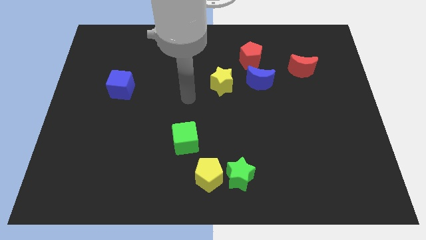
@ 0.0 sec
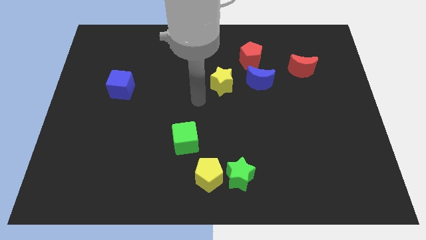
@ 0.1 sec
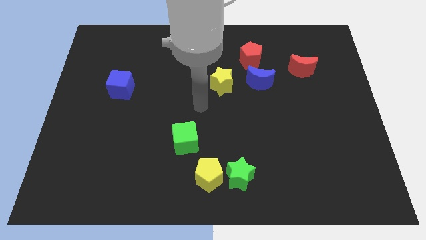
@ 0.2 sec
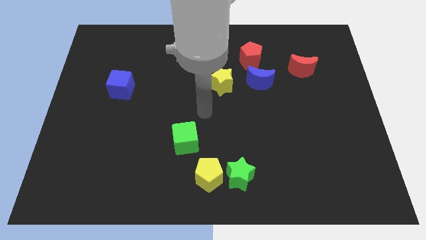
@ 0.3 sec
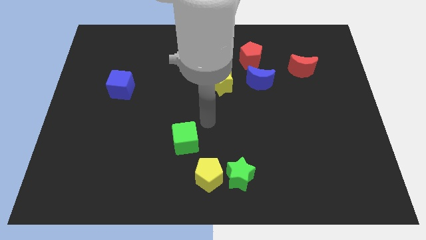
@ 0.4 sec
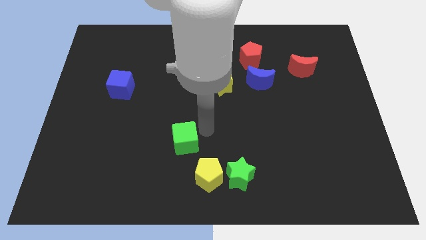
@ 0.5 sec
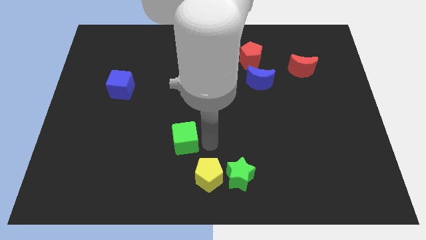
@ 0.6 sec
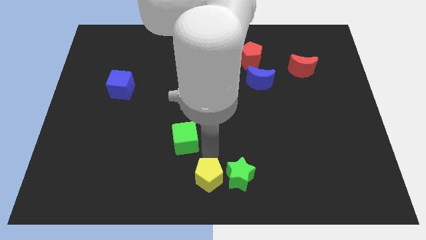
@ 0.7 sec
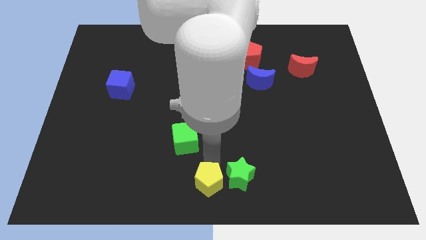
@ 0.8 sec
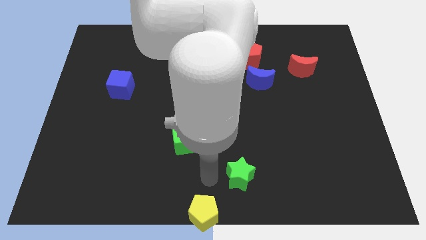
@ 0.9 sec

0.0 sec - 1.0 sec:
move the green star away from the yellow pentagon

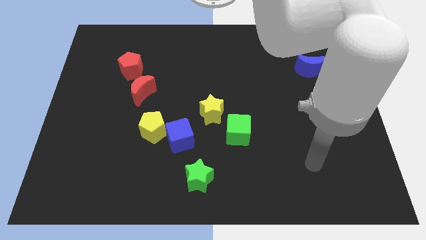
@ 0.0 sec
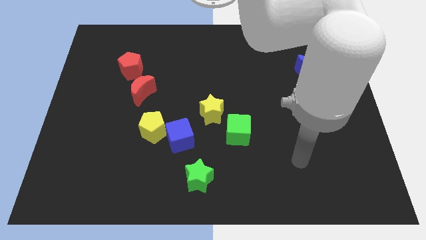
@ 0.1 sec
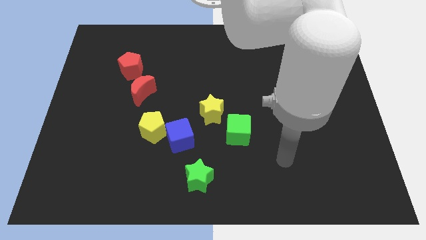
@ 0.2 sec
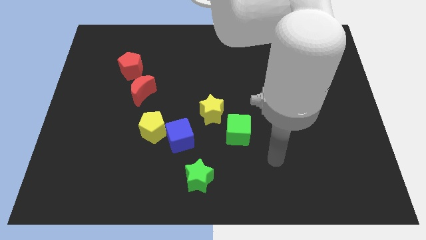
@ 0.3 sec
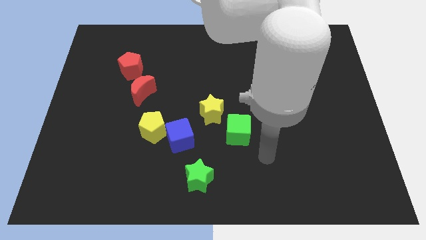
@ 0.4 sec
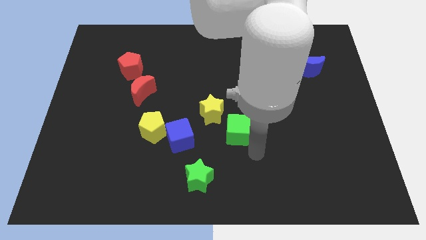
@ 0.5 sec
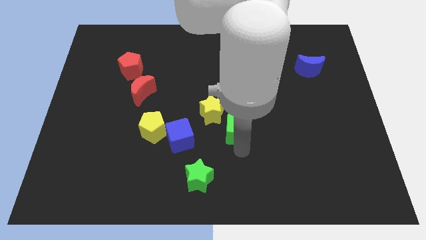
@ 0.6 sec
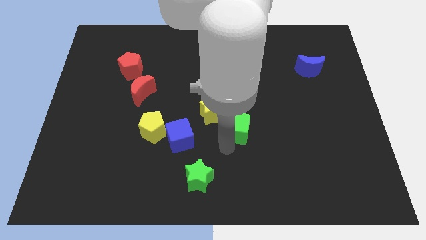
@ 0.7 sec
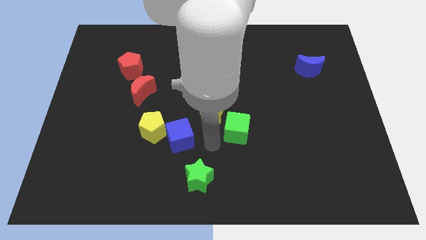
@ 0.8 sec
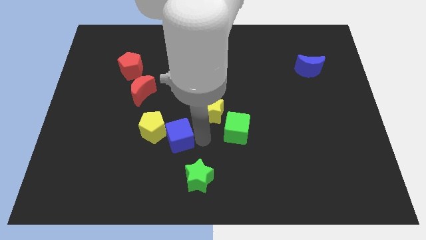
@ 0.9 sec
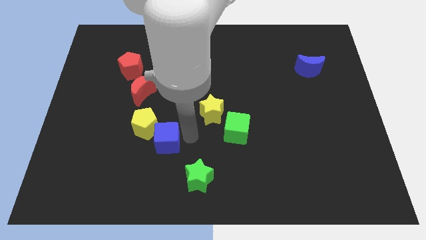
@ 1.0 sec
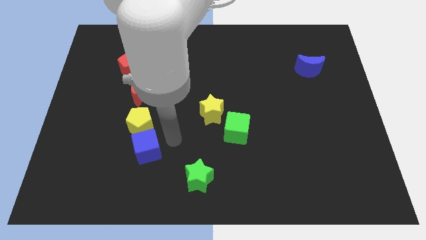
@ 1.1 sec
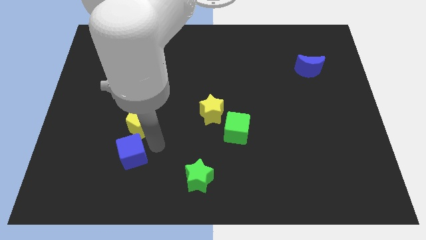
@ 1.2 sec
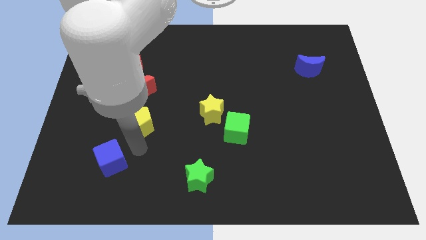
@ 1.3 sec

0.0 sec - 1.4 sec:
move the yellow pentagon away from the blue cube

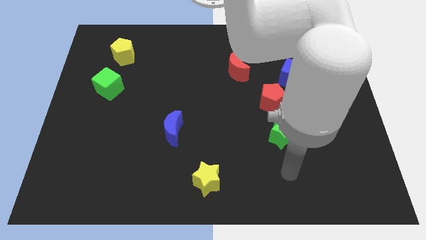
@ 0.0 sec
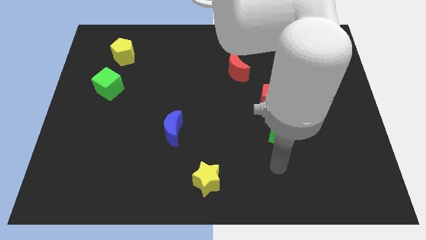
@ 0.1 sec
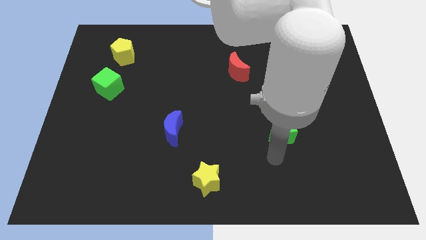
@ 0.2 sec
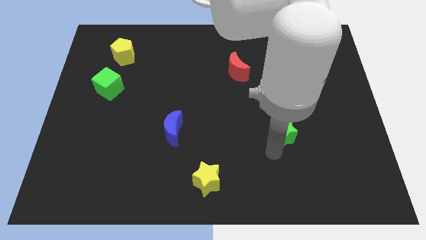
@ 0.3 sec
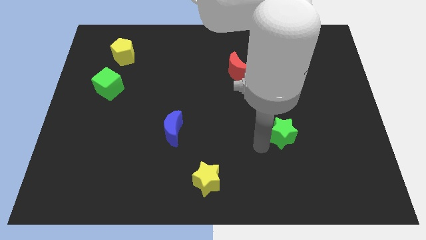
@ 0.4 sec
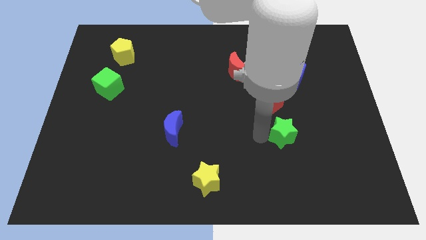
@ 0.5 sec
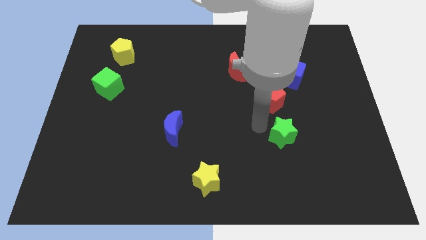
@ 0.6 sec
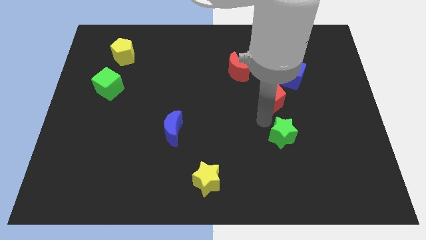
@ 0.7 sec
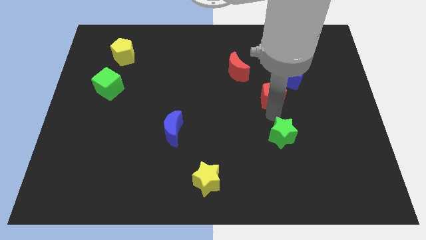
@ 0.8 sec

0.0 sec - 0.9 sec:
pull the green star apart from the red pentagon

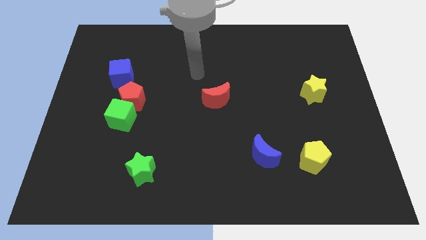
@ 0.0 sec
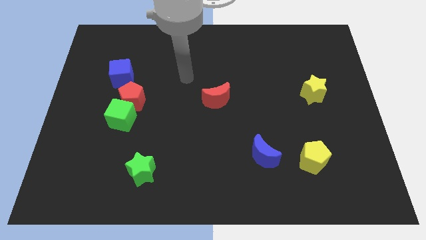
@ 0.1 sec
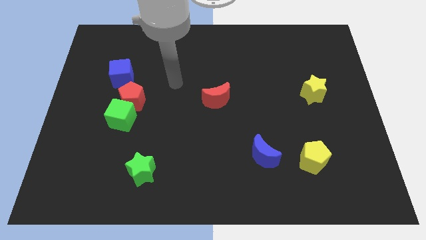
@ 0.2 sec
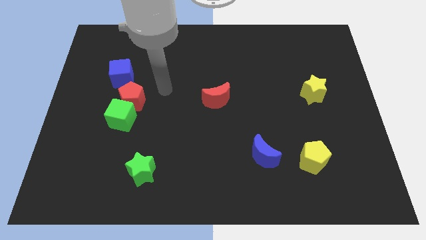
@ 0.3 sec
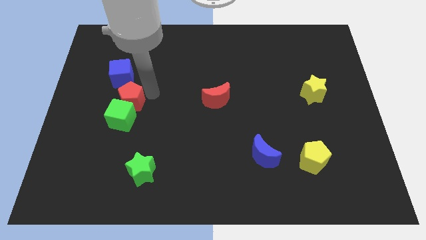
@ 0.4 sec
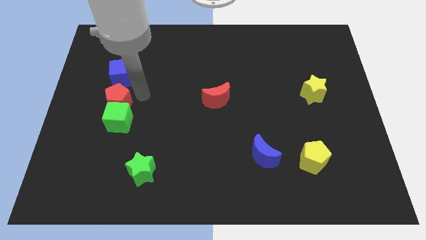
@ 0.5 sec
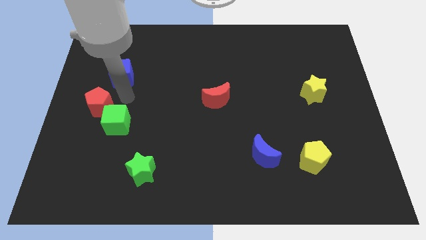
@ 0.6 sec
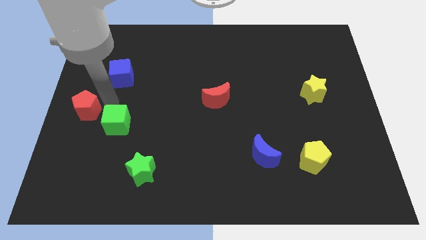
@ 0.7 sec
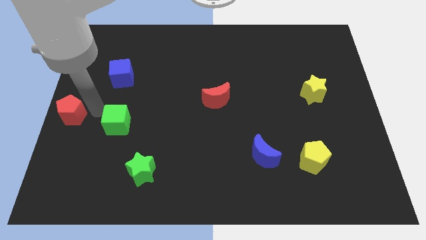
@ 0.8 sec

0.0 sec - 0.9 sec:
pull the green cube apart from the red pentagon

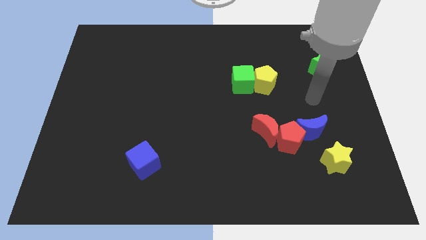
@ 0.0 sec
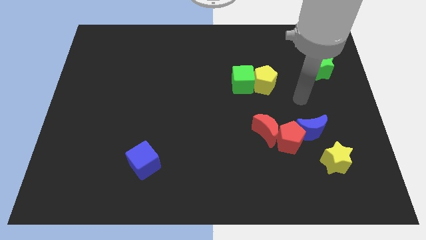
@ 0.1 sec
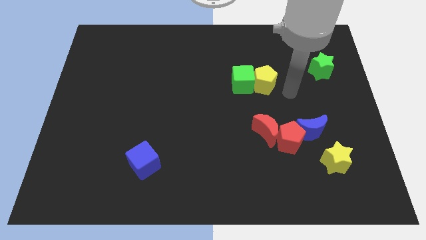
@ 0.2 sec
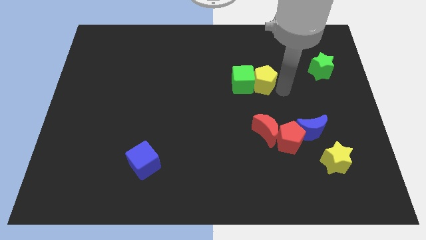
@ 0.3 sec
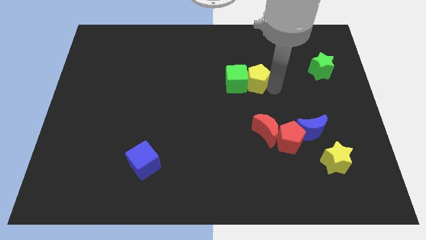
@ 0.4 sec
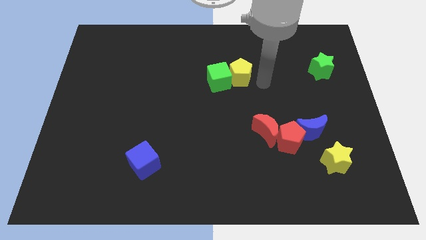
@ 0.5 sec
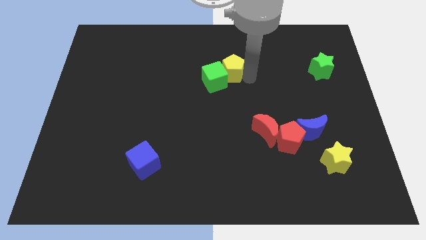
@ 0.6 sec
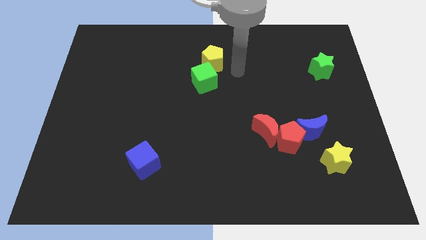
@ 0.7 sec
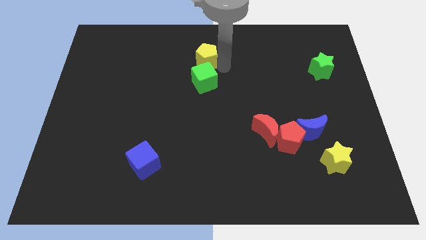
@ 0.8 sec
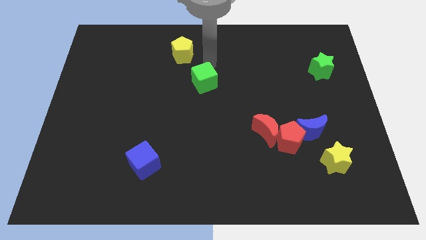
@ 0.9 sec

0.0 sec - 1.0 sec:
pull the green cube apart from the yellow pentagon

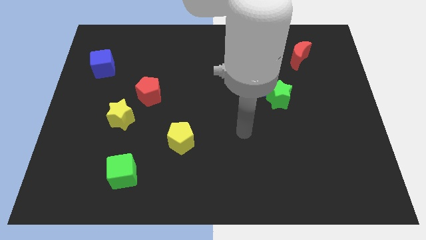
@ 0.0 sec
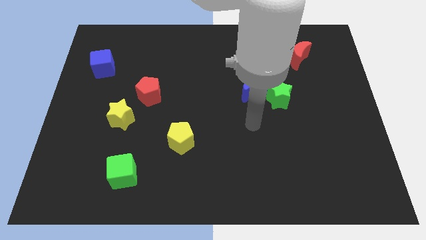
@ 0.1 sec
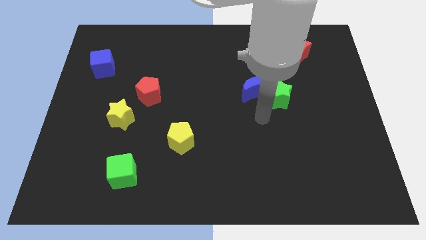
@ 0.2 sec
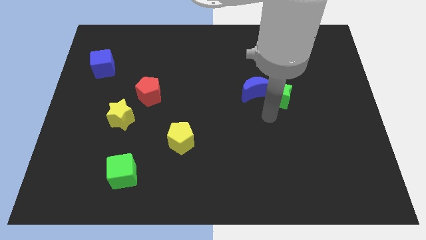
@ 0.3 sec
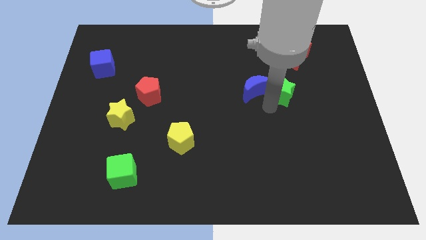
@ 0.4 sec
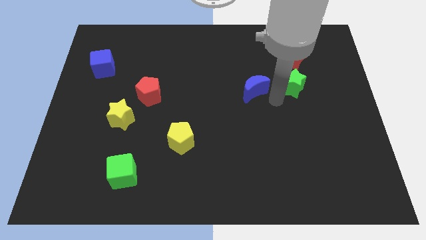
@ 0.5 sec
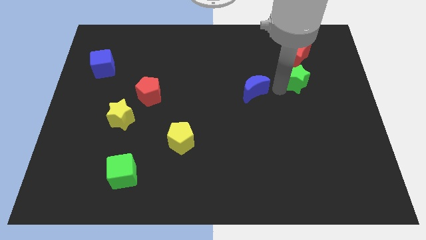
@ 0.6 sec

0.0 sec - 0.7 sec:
pull the blue moon apart from the green star

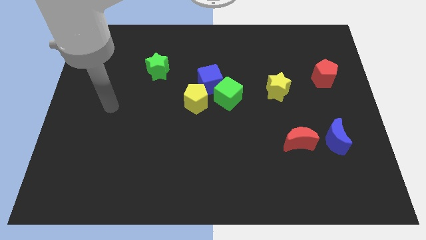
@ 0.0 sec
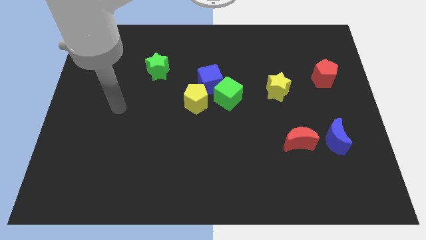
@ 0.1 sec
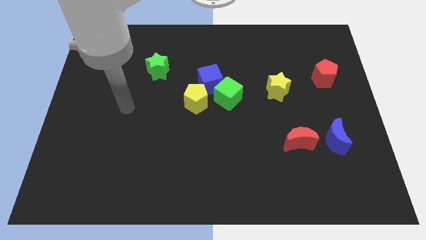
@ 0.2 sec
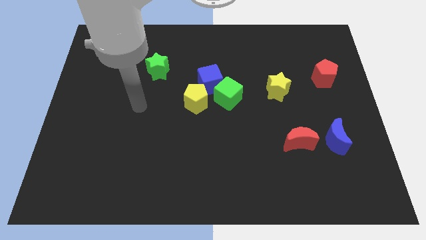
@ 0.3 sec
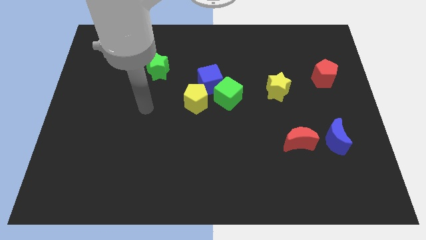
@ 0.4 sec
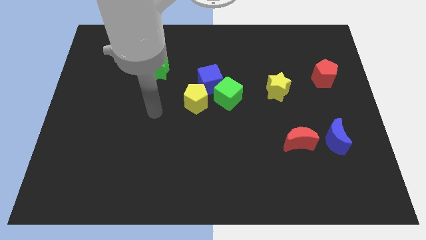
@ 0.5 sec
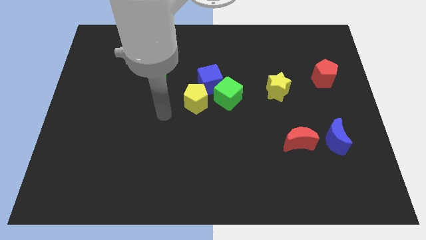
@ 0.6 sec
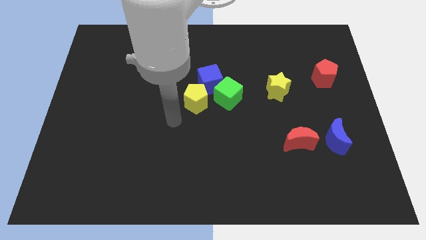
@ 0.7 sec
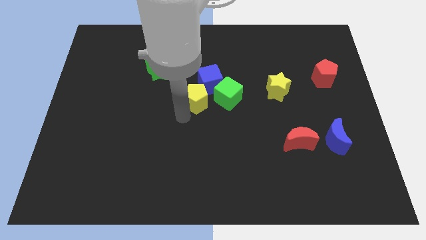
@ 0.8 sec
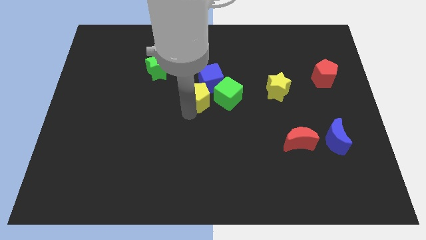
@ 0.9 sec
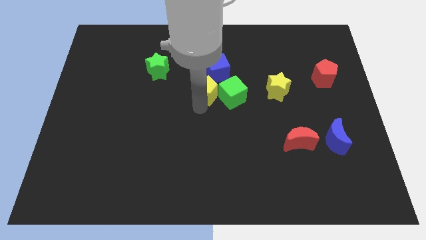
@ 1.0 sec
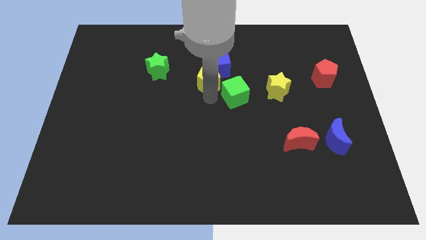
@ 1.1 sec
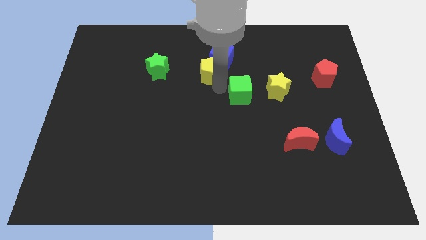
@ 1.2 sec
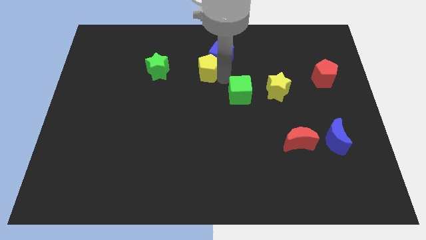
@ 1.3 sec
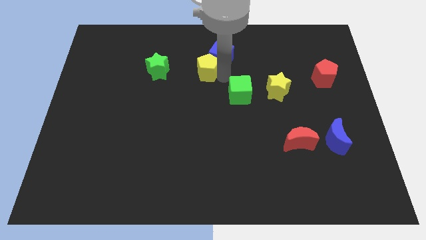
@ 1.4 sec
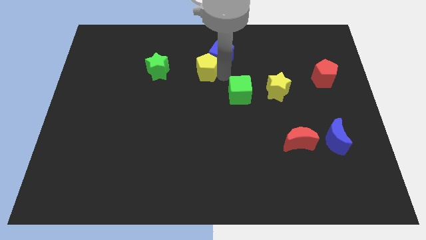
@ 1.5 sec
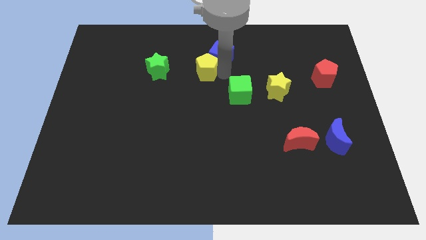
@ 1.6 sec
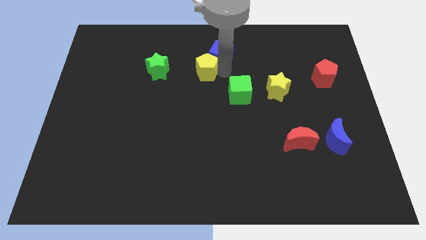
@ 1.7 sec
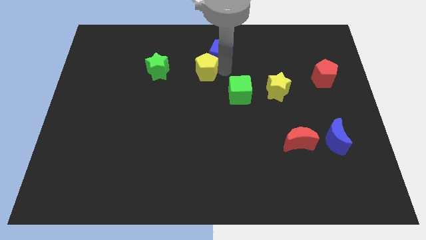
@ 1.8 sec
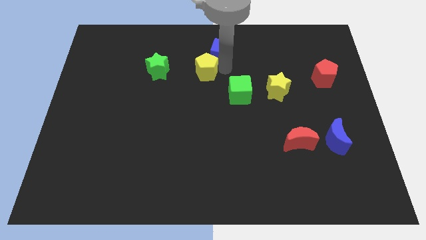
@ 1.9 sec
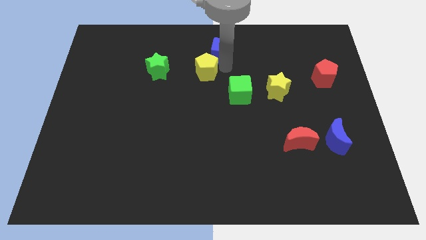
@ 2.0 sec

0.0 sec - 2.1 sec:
move the blue cube away from the green cube and yellow pentagon

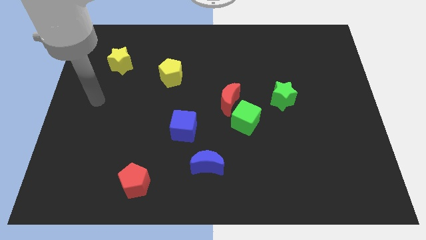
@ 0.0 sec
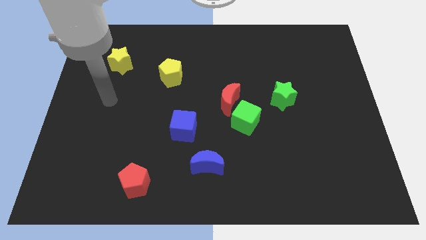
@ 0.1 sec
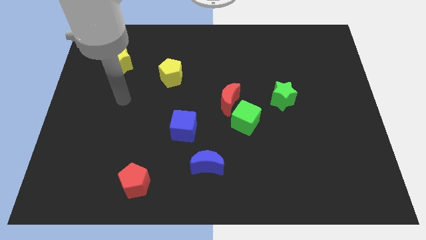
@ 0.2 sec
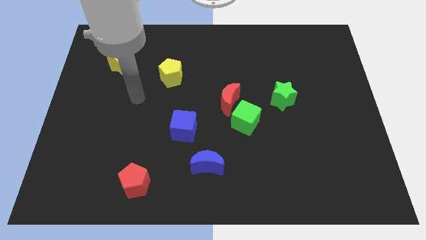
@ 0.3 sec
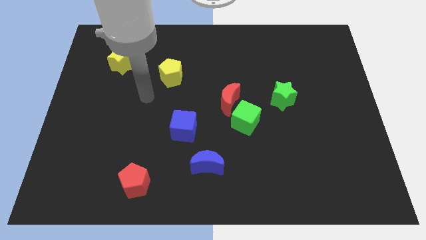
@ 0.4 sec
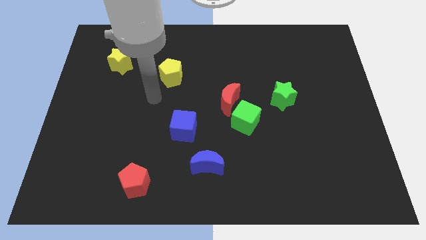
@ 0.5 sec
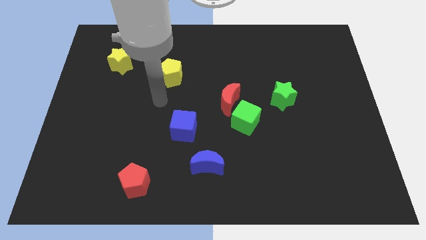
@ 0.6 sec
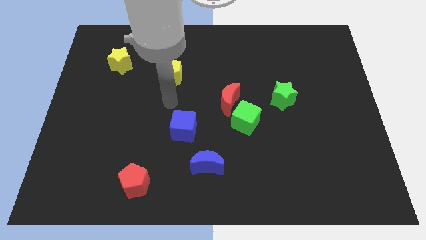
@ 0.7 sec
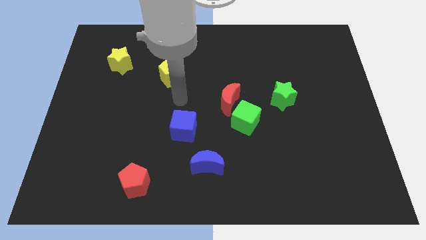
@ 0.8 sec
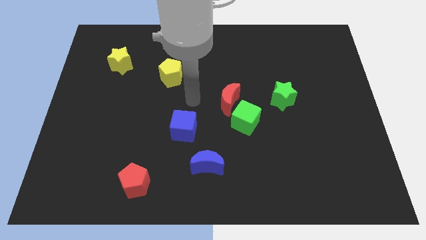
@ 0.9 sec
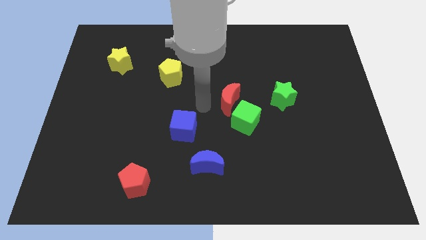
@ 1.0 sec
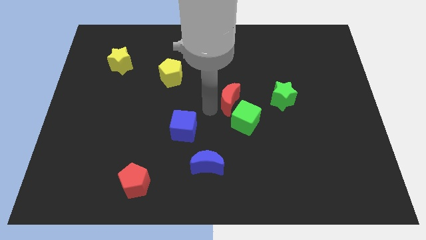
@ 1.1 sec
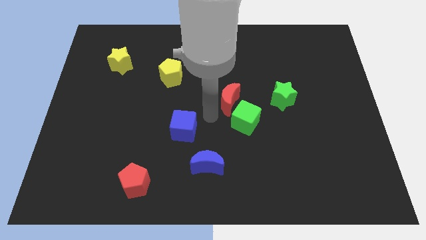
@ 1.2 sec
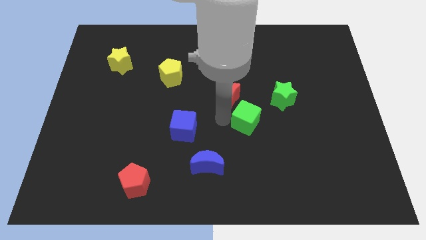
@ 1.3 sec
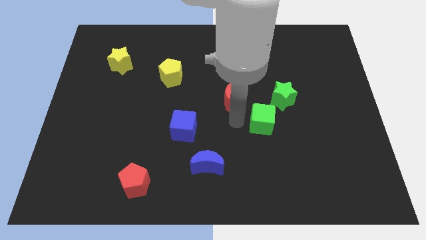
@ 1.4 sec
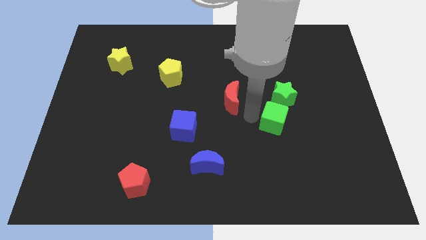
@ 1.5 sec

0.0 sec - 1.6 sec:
move the red moon away from the green cube
